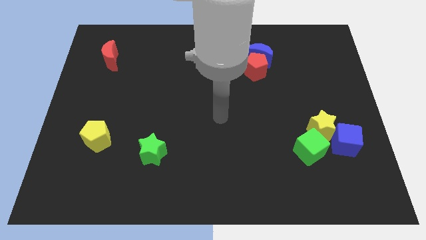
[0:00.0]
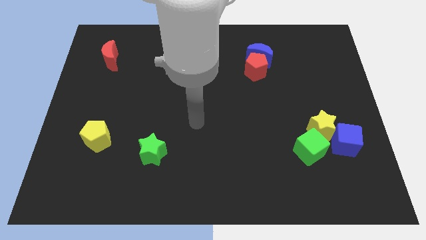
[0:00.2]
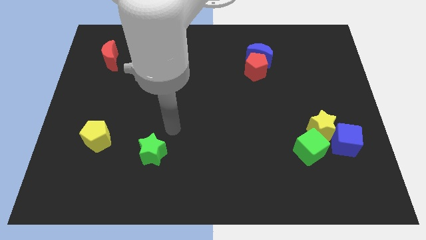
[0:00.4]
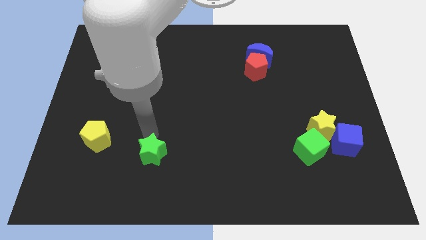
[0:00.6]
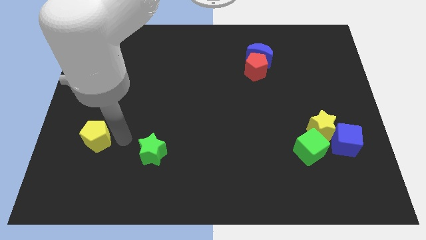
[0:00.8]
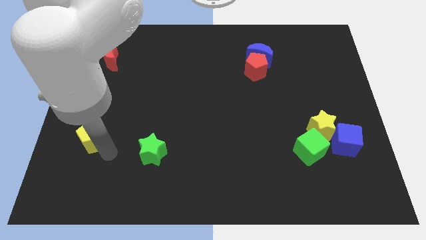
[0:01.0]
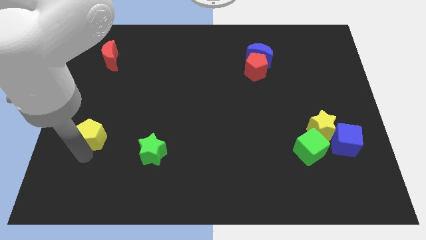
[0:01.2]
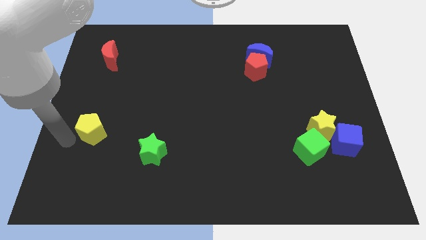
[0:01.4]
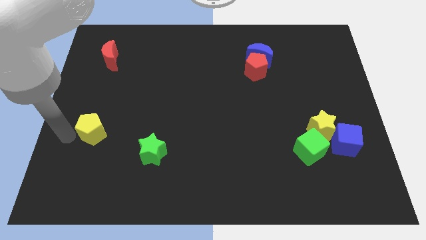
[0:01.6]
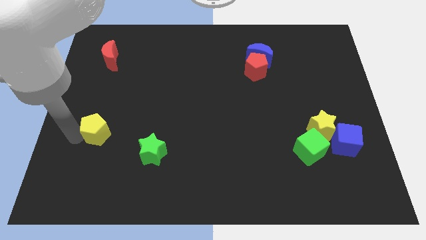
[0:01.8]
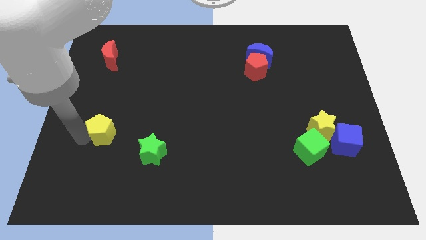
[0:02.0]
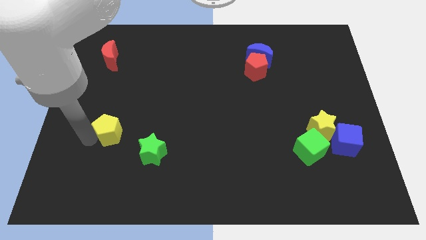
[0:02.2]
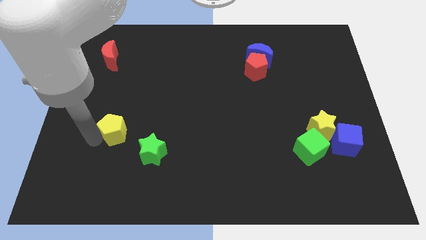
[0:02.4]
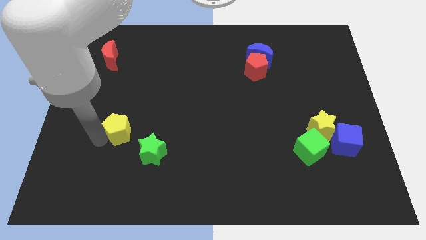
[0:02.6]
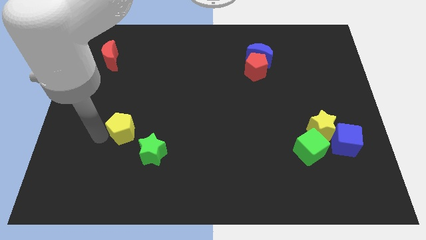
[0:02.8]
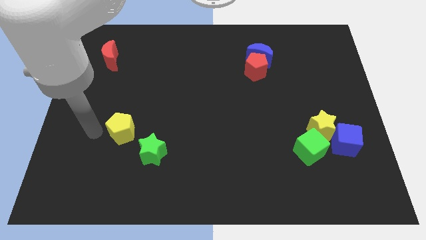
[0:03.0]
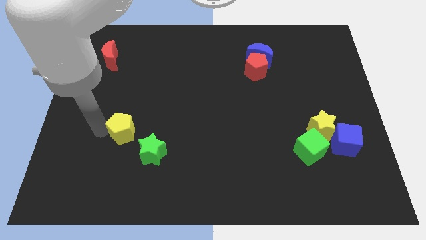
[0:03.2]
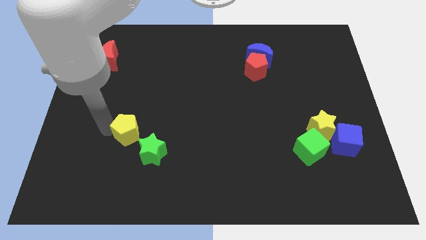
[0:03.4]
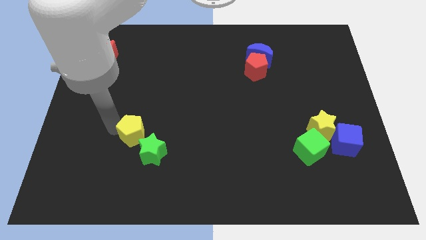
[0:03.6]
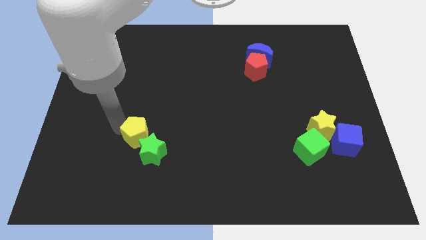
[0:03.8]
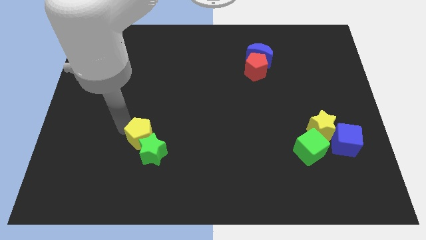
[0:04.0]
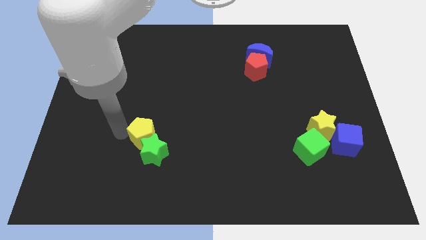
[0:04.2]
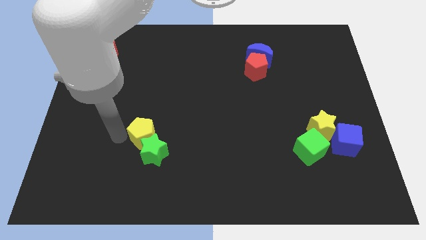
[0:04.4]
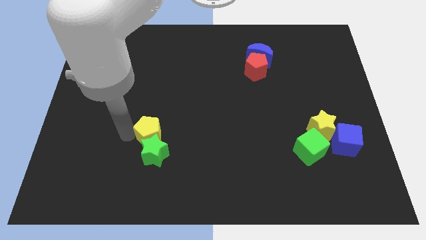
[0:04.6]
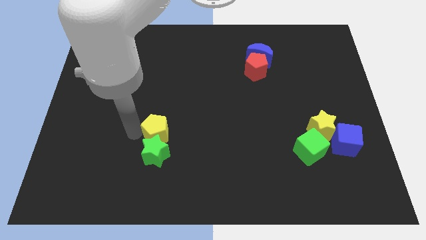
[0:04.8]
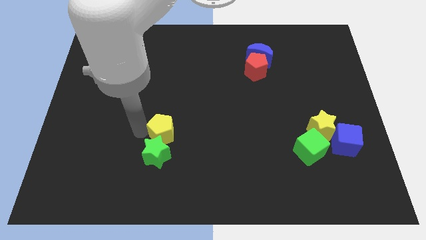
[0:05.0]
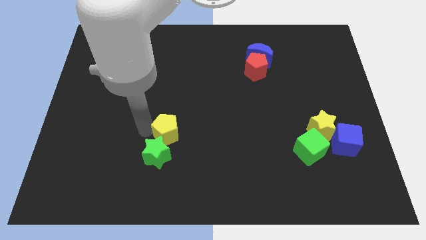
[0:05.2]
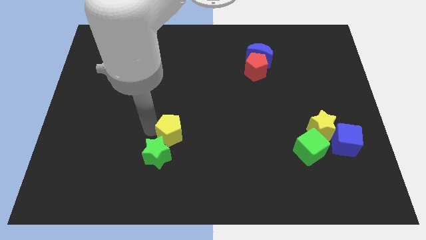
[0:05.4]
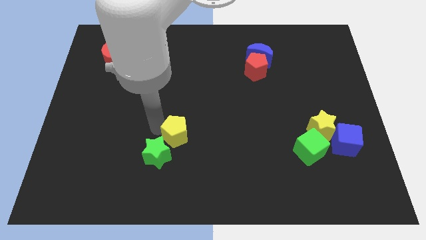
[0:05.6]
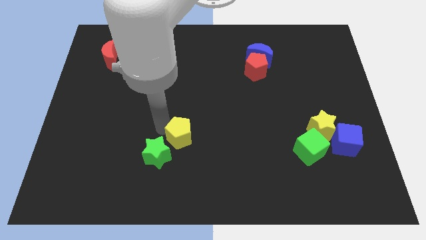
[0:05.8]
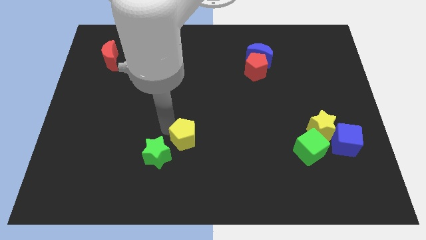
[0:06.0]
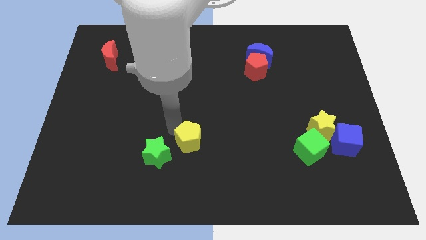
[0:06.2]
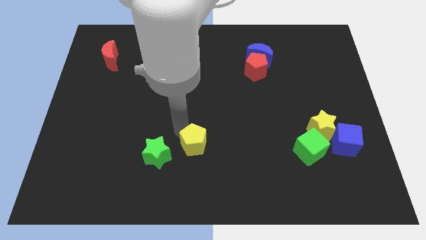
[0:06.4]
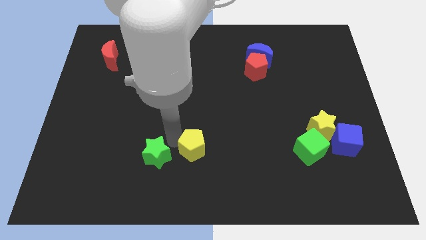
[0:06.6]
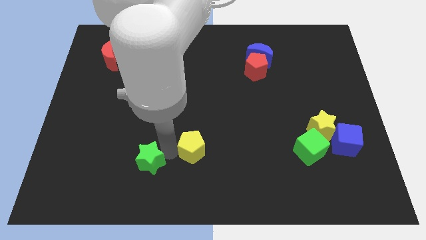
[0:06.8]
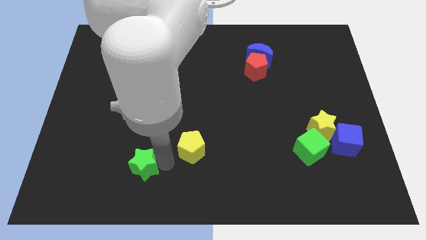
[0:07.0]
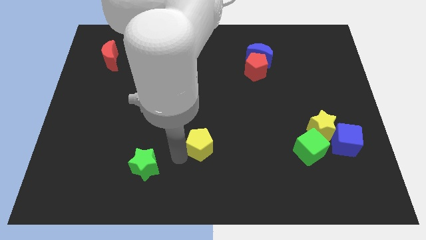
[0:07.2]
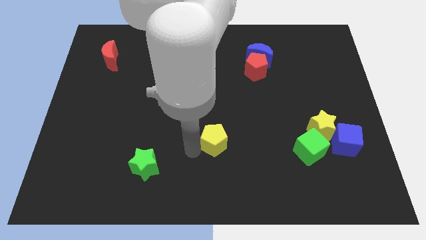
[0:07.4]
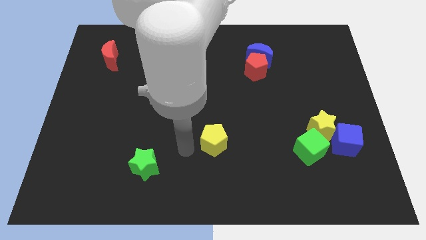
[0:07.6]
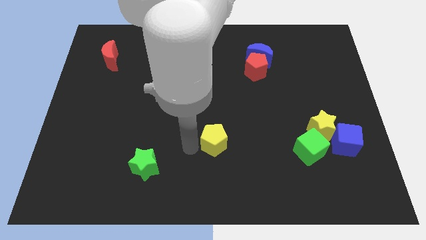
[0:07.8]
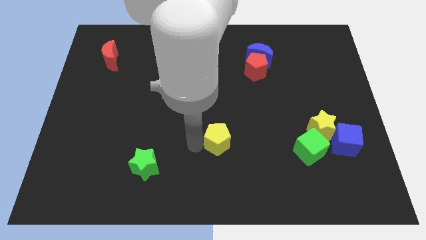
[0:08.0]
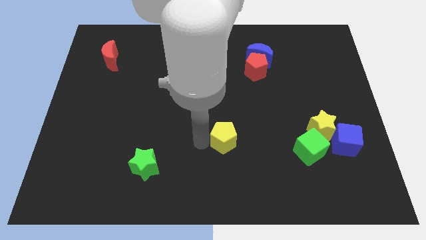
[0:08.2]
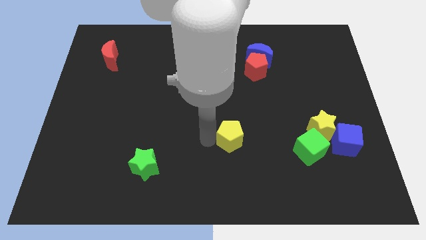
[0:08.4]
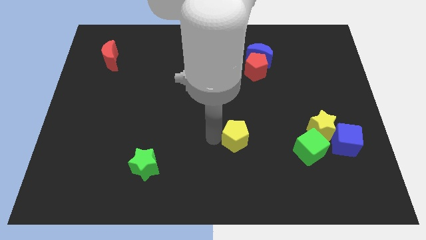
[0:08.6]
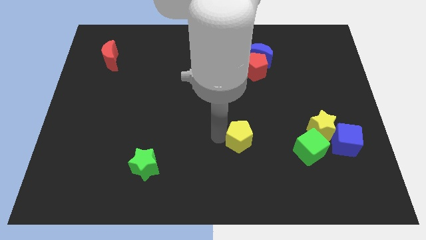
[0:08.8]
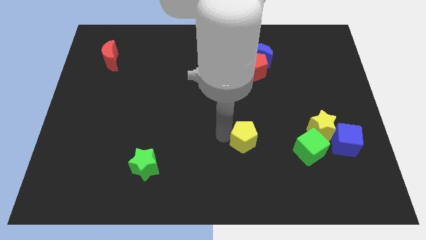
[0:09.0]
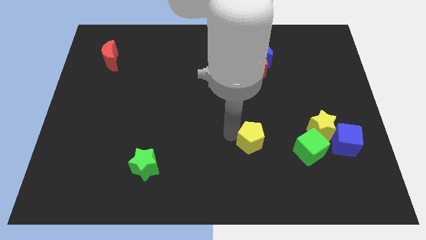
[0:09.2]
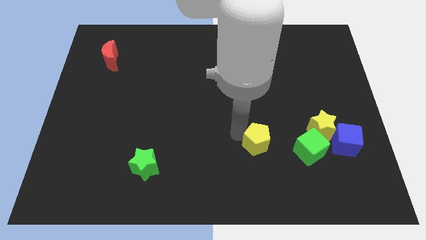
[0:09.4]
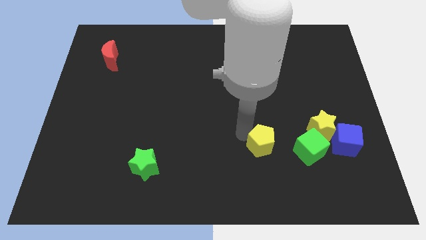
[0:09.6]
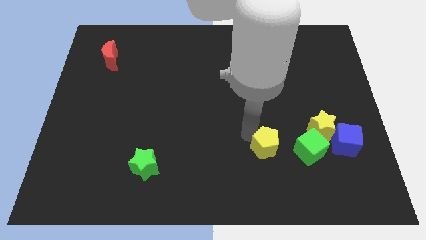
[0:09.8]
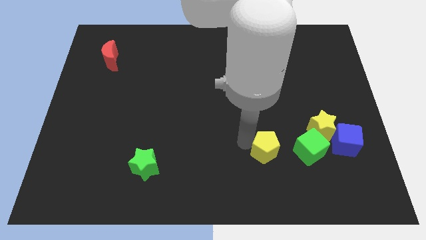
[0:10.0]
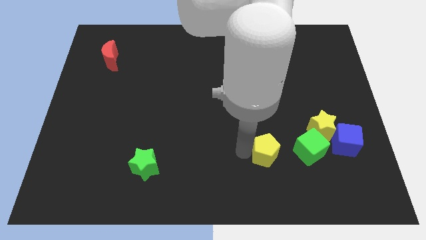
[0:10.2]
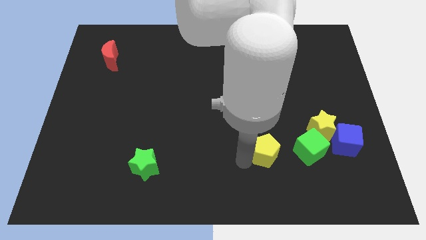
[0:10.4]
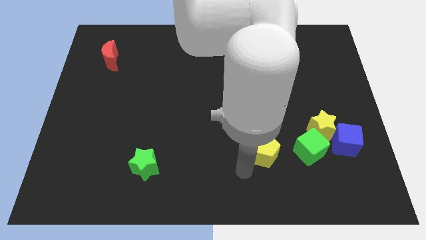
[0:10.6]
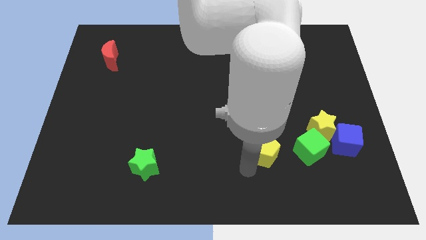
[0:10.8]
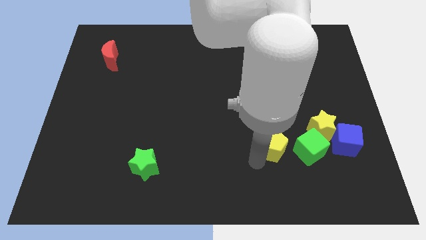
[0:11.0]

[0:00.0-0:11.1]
move the yellow pentagon just left of the blue cube

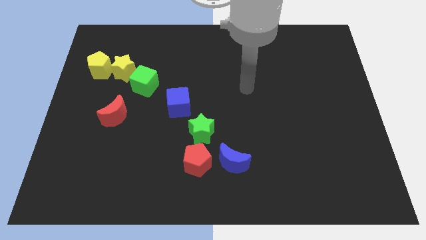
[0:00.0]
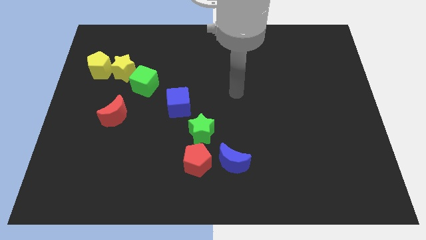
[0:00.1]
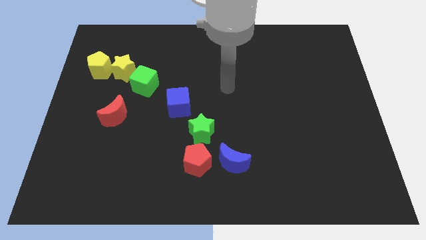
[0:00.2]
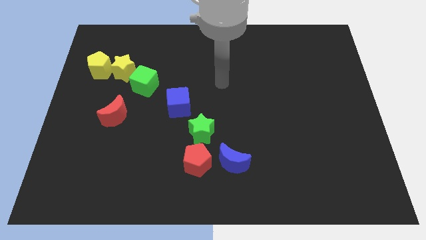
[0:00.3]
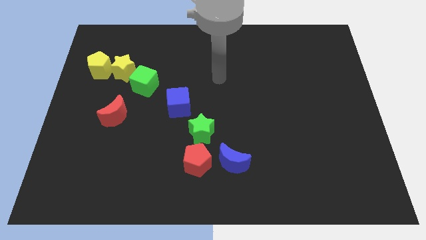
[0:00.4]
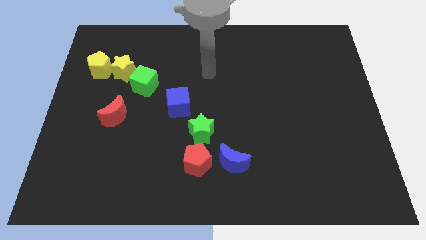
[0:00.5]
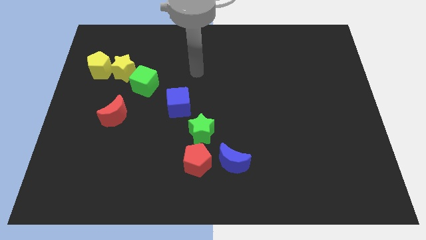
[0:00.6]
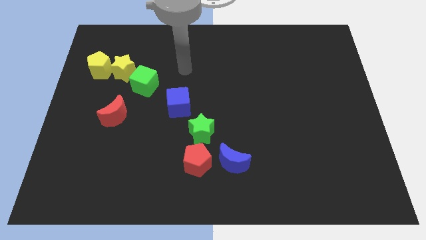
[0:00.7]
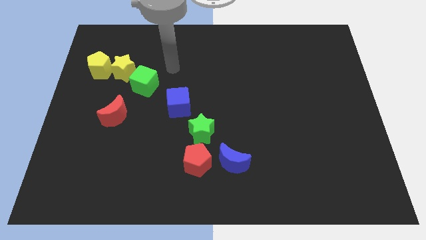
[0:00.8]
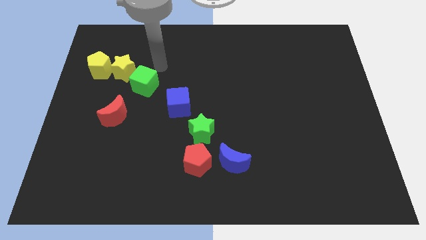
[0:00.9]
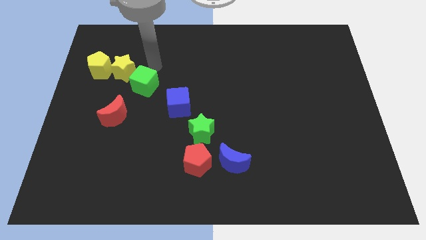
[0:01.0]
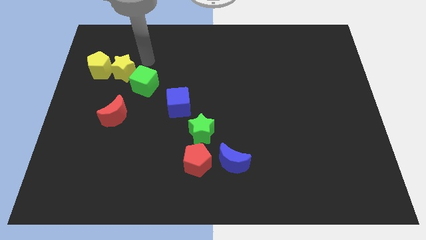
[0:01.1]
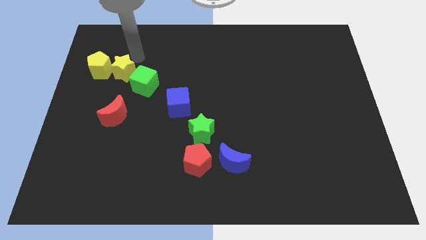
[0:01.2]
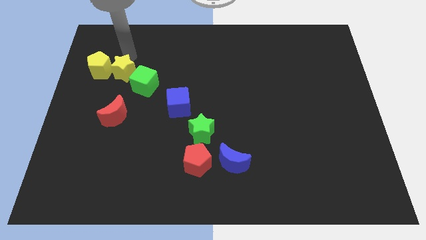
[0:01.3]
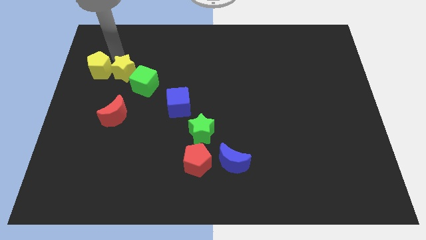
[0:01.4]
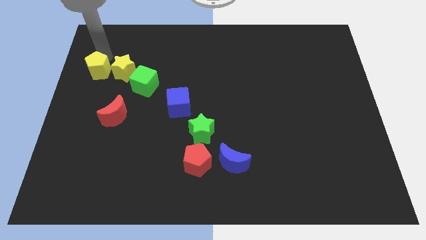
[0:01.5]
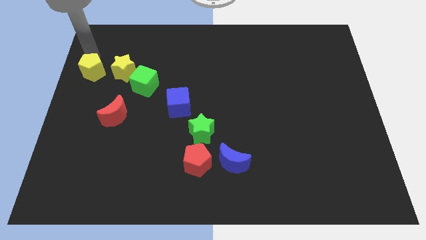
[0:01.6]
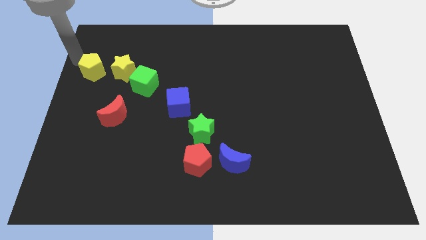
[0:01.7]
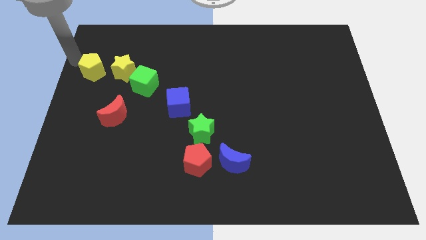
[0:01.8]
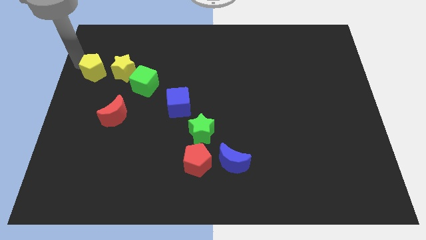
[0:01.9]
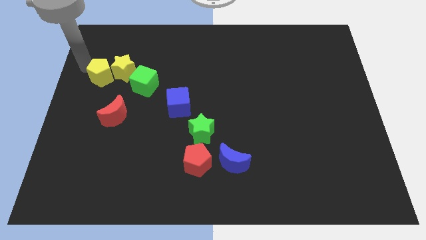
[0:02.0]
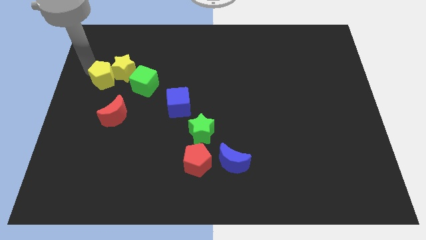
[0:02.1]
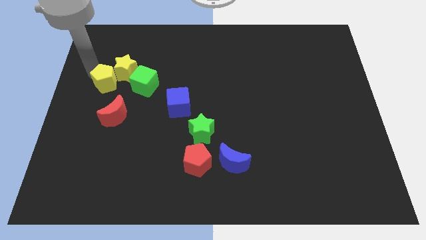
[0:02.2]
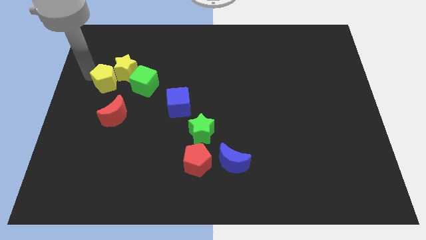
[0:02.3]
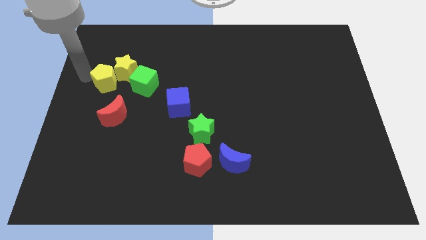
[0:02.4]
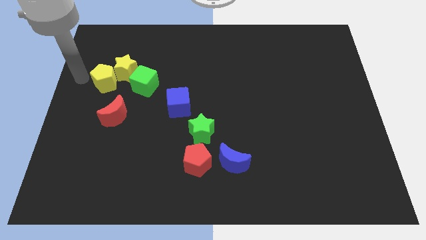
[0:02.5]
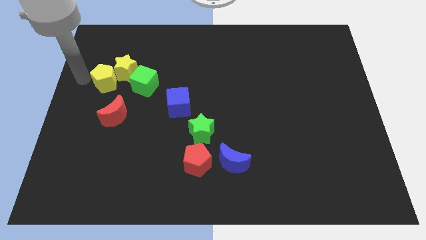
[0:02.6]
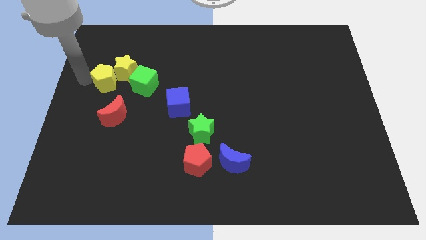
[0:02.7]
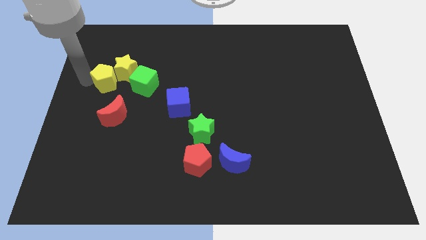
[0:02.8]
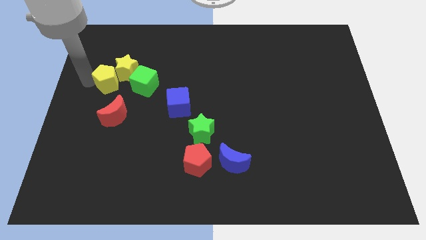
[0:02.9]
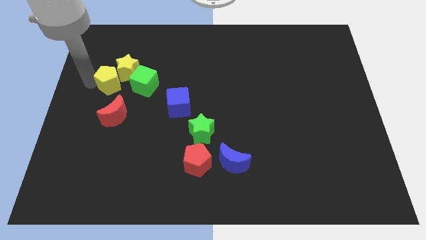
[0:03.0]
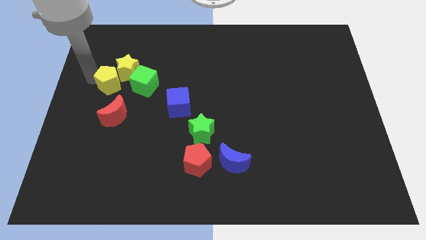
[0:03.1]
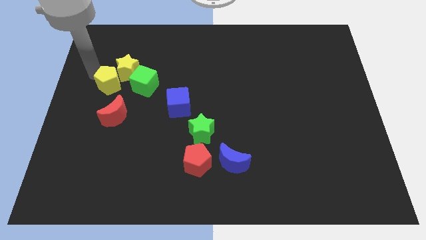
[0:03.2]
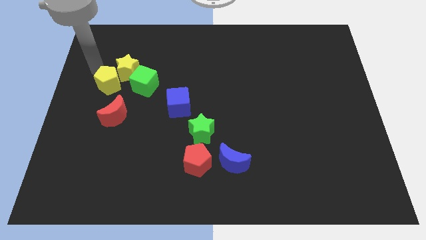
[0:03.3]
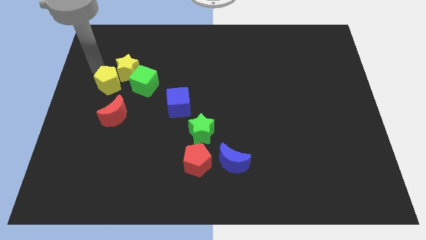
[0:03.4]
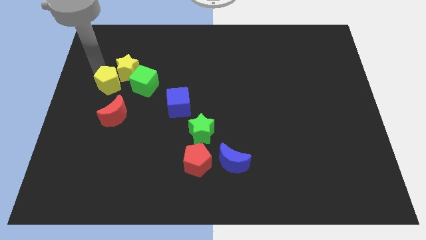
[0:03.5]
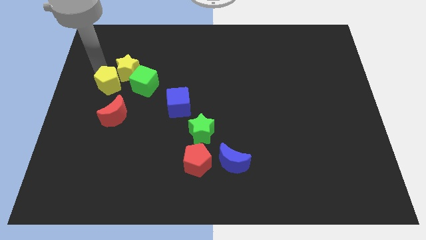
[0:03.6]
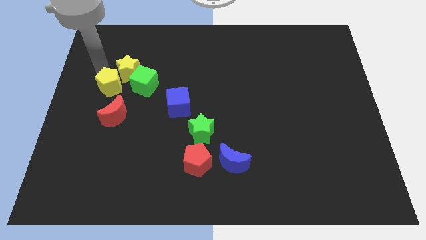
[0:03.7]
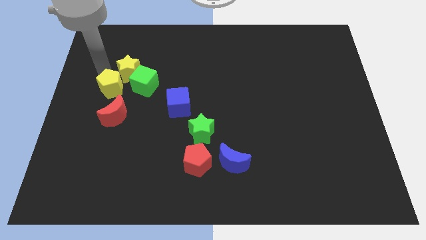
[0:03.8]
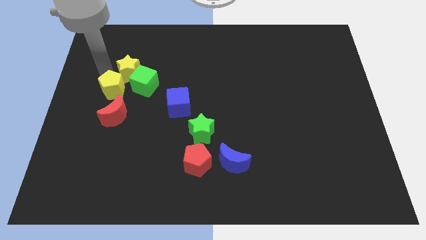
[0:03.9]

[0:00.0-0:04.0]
put the yellow pentagon diagonally down and to the left of the green cube
